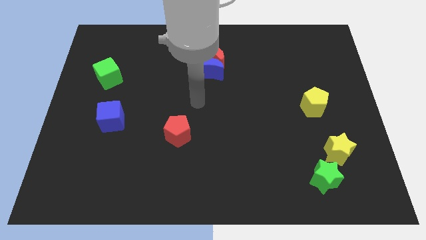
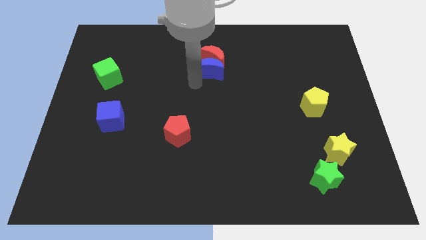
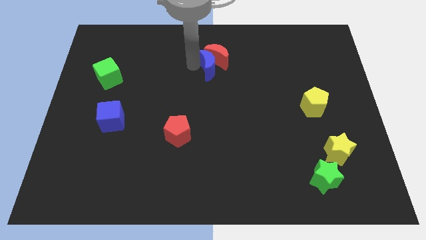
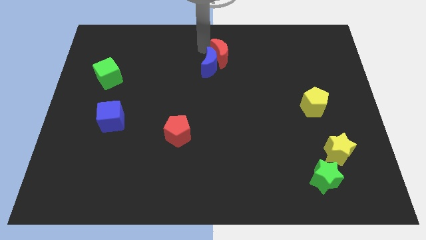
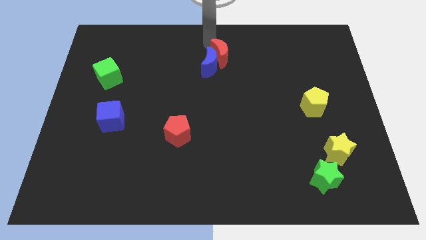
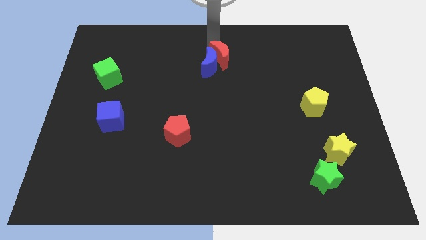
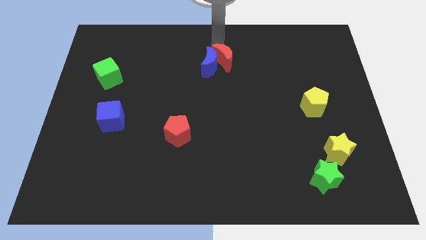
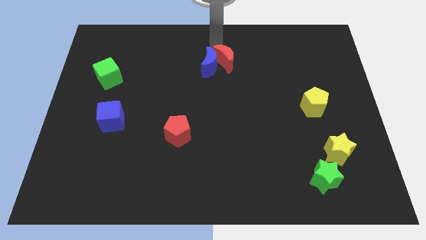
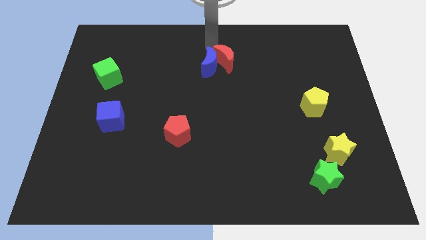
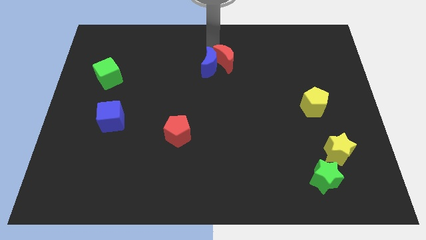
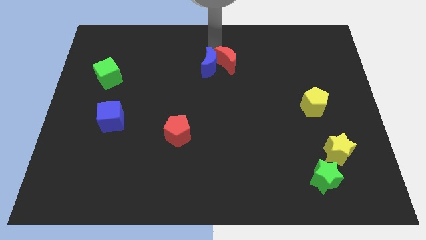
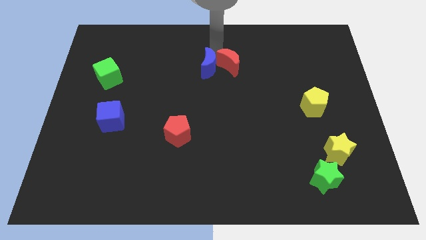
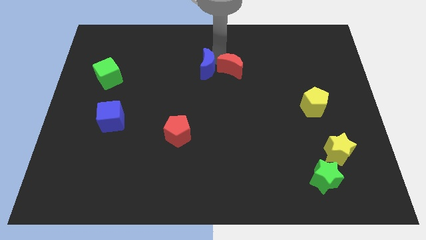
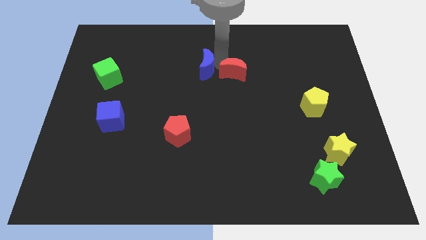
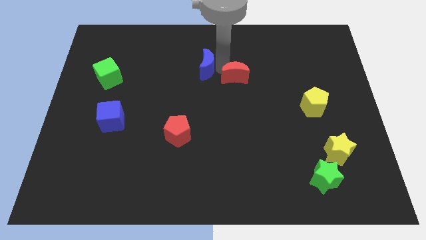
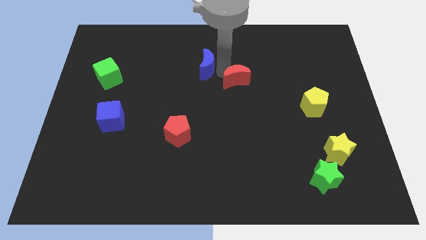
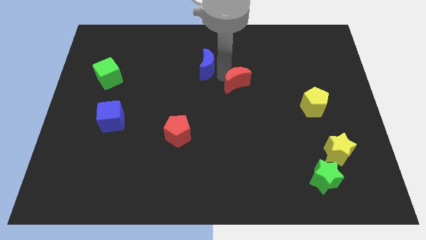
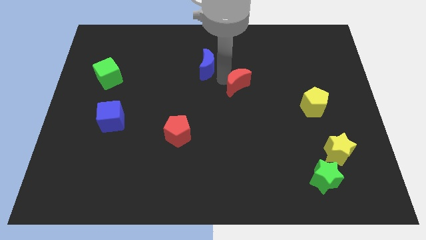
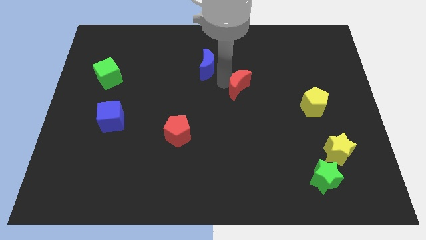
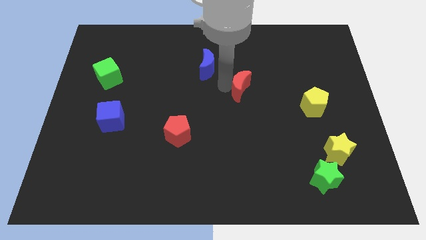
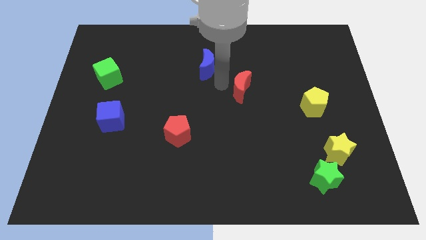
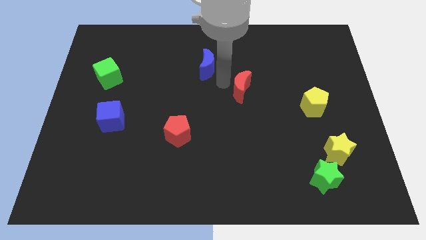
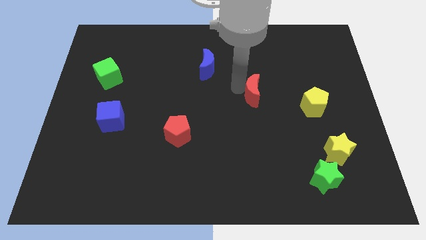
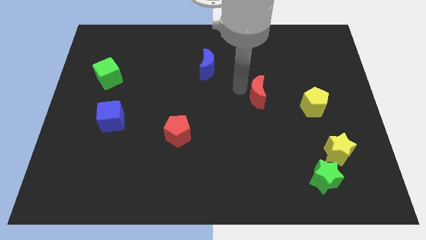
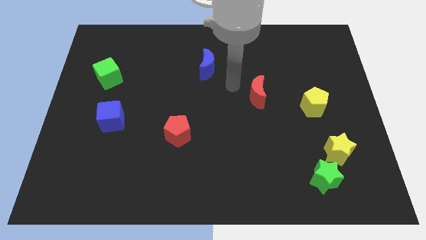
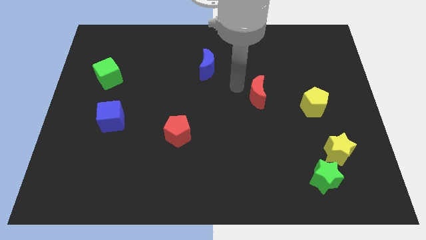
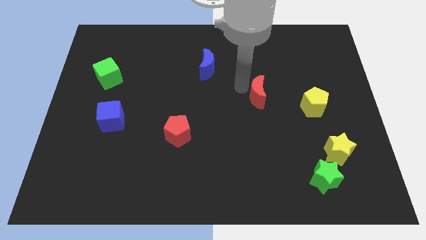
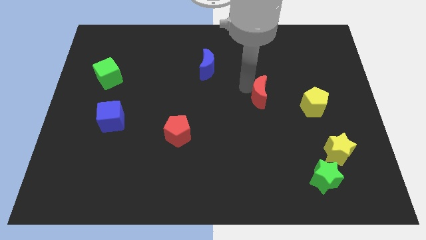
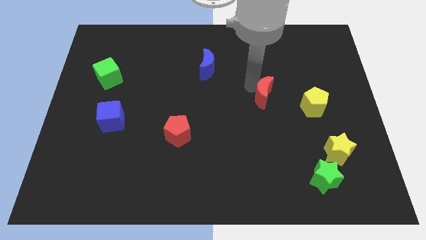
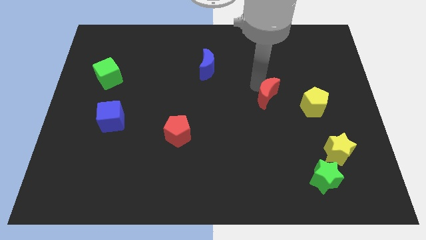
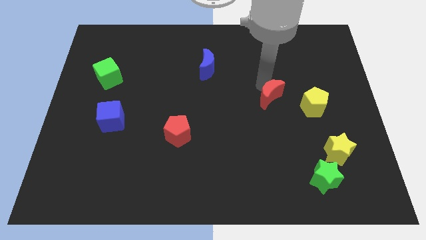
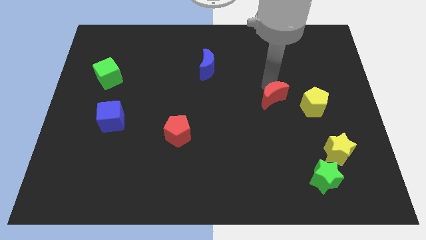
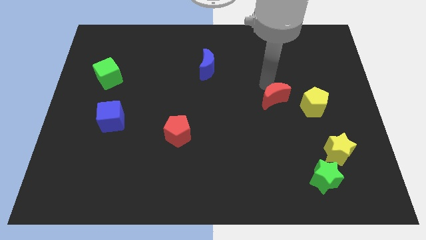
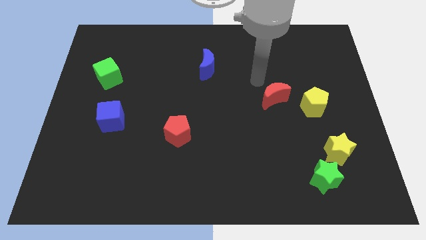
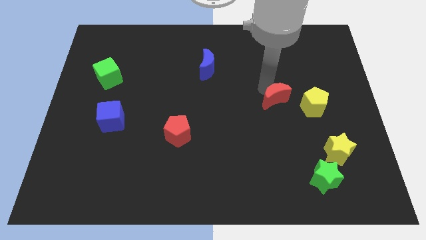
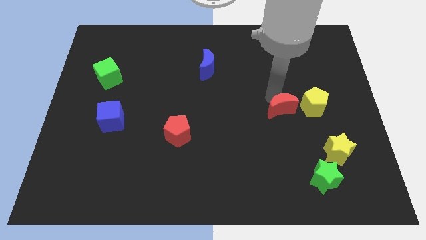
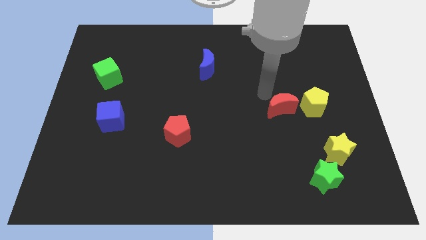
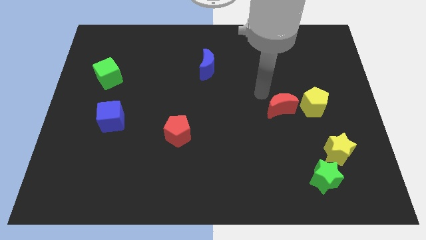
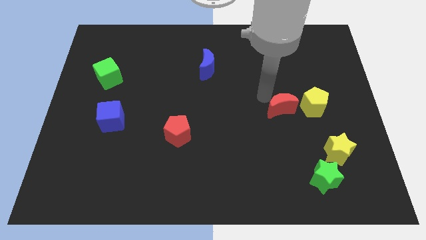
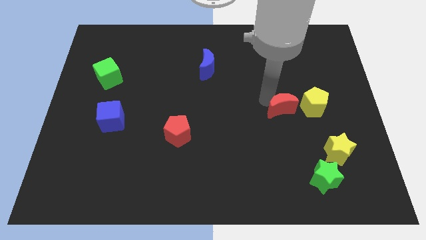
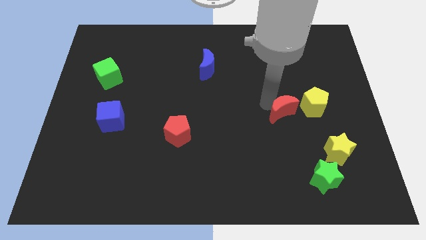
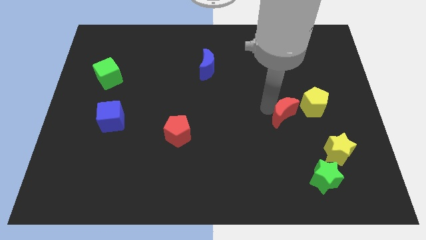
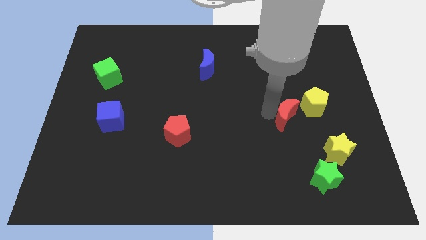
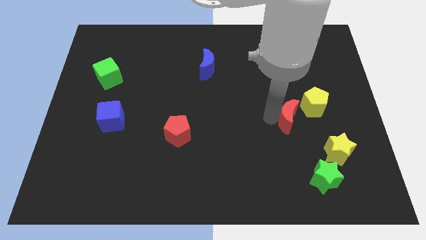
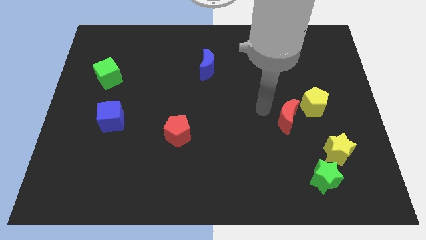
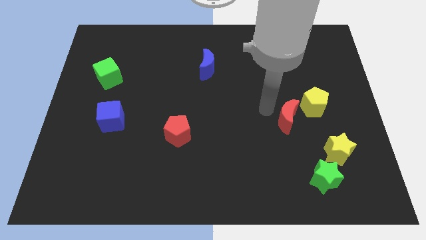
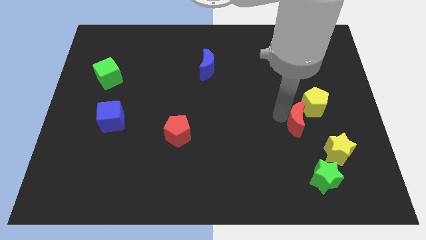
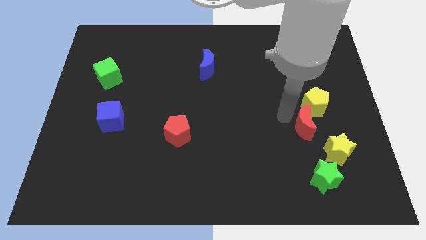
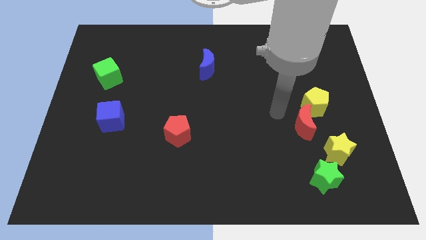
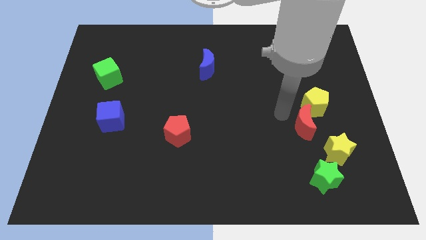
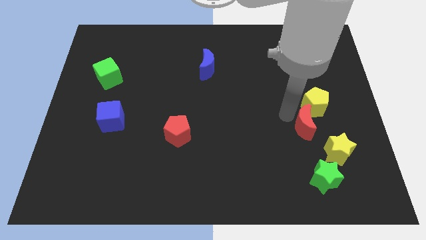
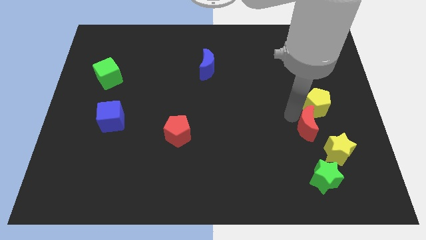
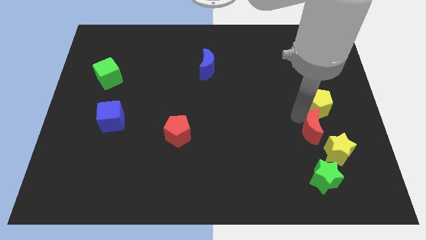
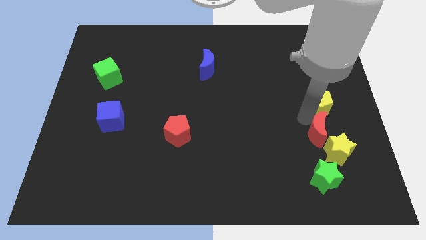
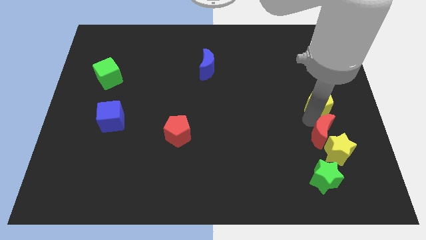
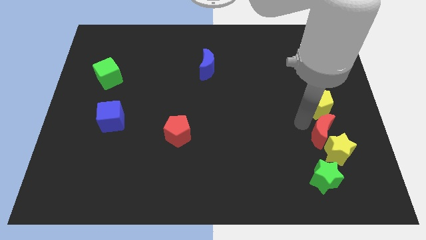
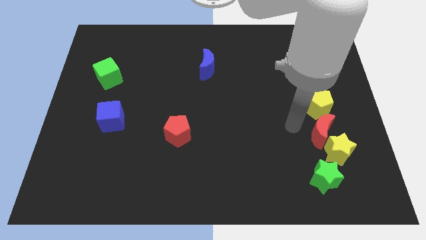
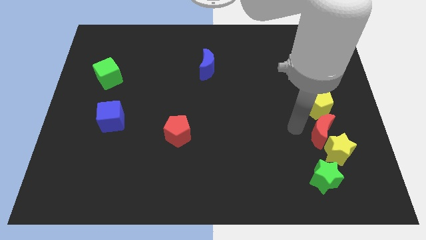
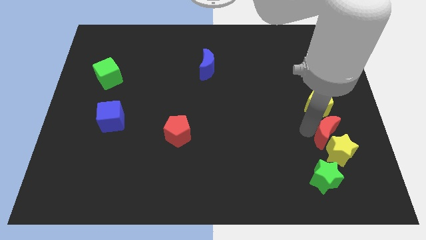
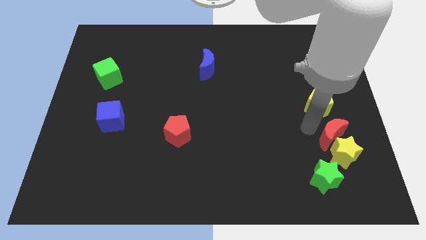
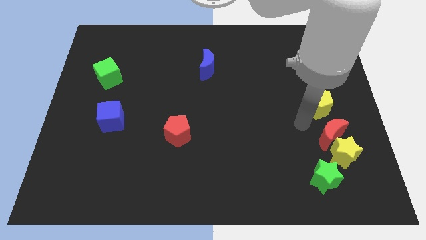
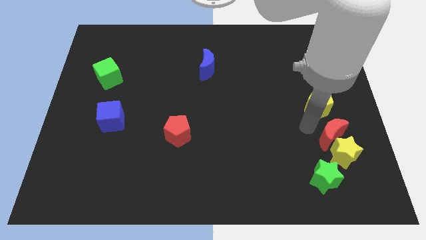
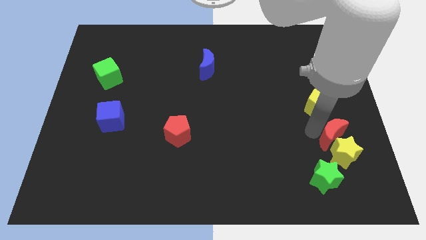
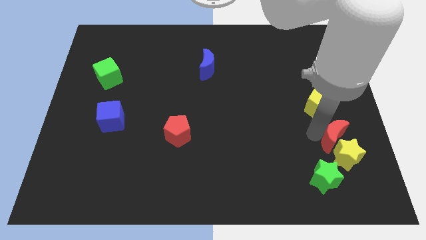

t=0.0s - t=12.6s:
move the red moon diagonally up and to the right of the green star

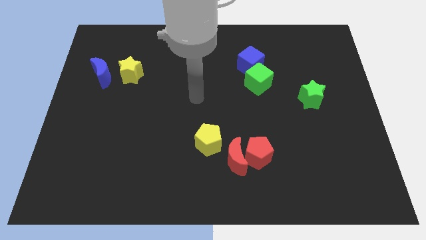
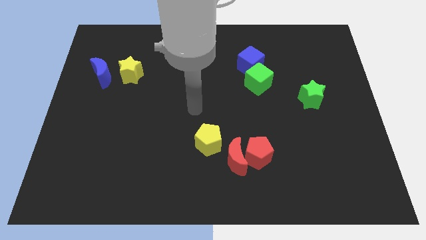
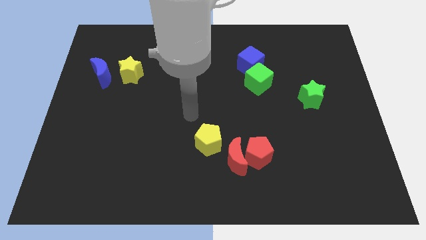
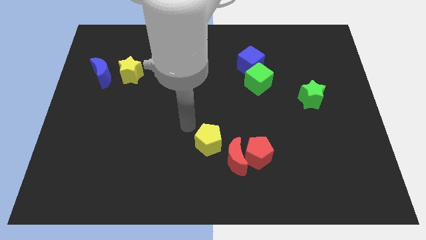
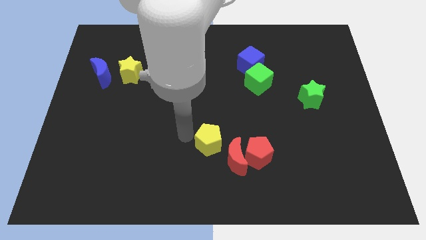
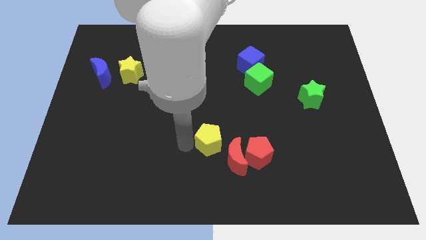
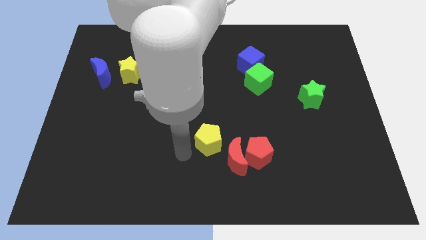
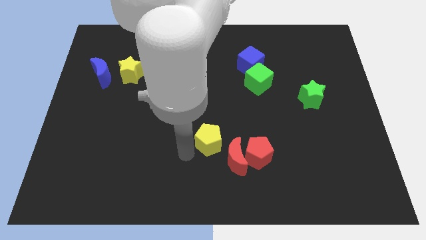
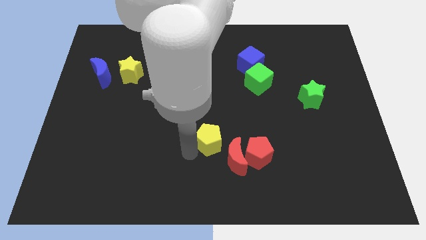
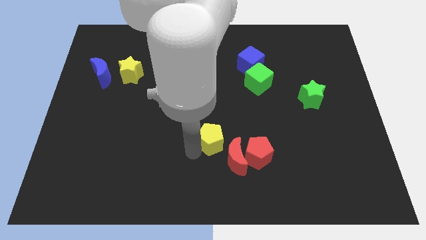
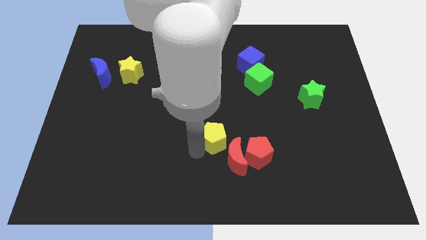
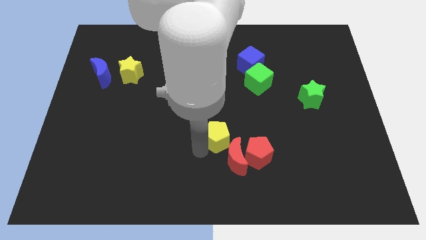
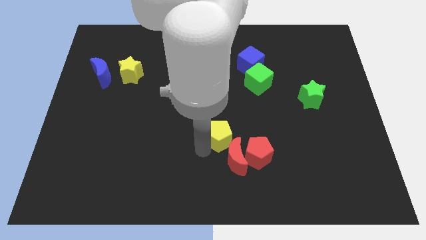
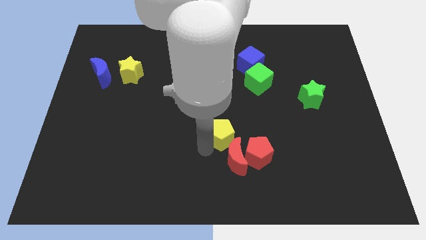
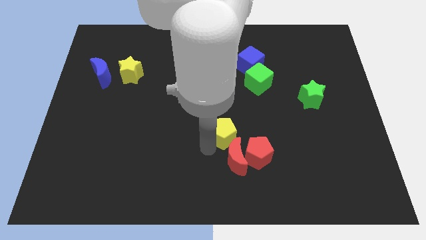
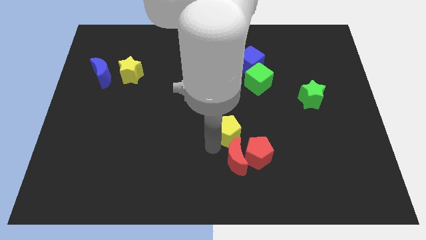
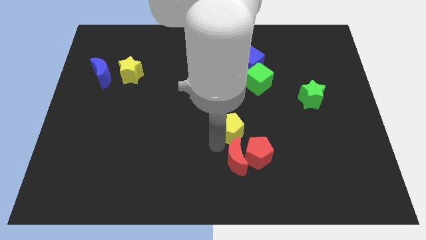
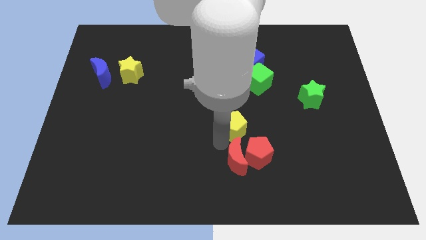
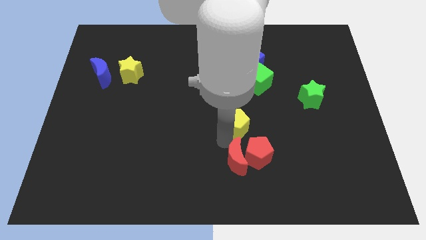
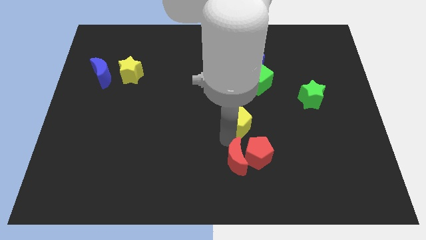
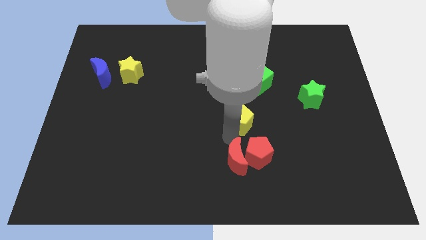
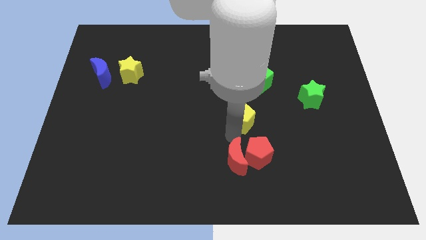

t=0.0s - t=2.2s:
move the yellow pentagon to the bottom of the green cube
